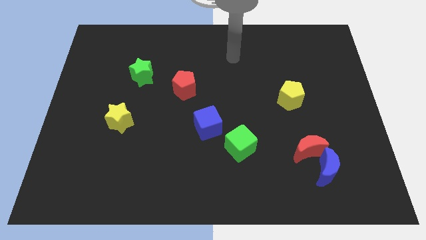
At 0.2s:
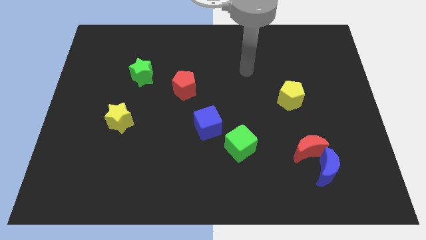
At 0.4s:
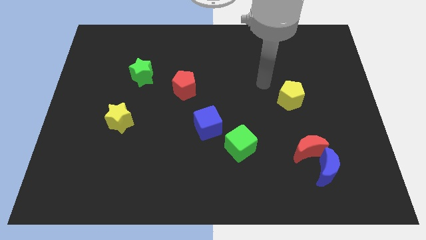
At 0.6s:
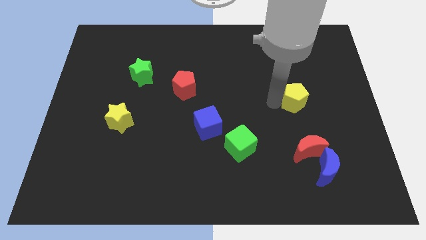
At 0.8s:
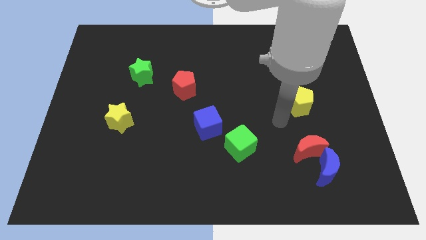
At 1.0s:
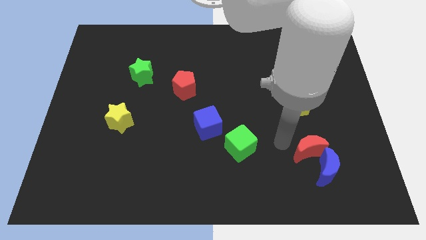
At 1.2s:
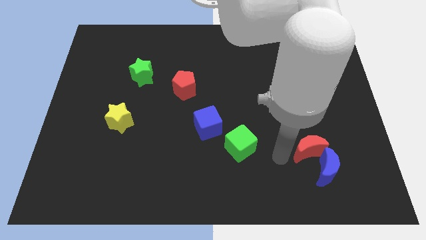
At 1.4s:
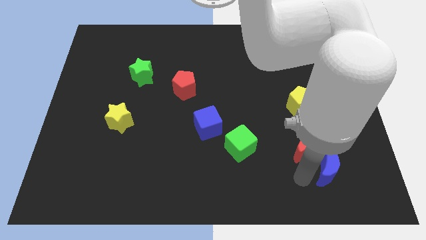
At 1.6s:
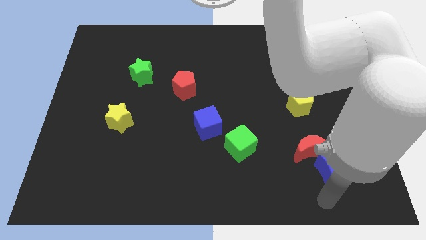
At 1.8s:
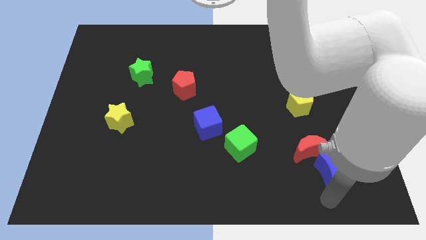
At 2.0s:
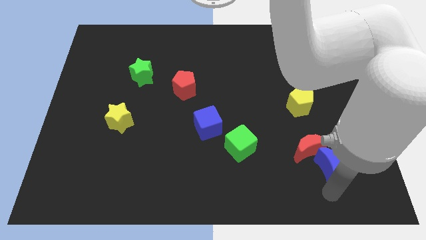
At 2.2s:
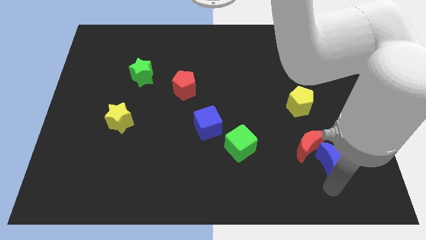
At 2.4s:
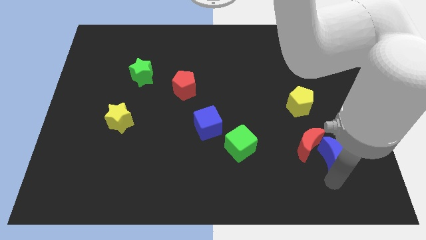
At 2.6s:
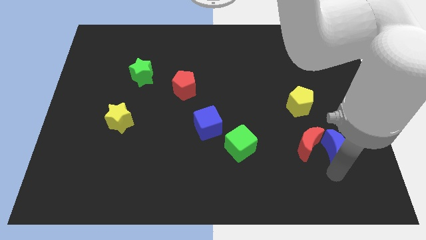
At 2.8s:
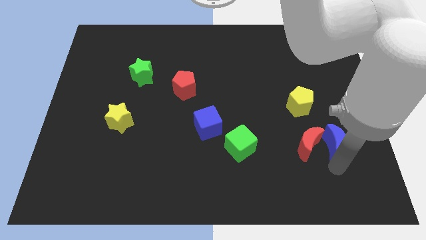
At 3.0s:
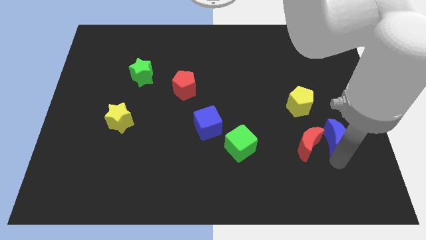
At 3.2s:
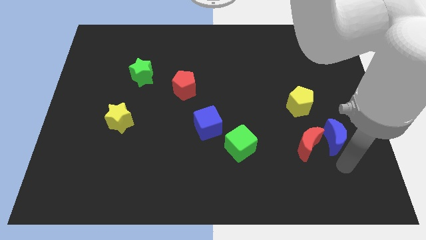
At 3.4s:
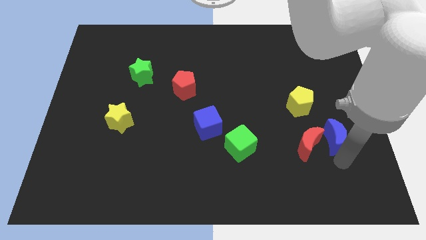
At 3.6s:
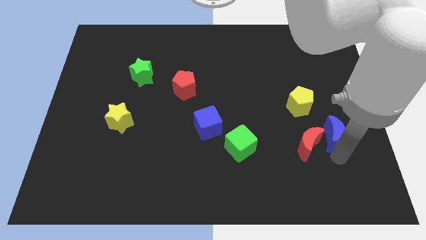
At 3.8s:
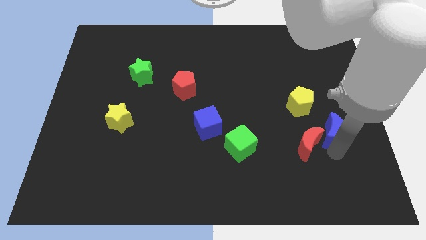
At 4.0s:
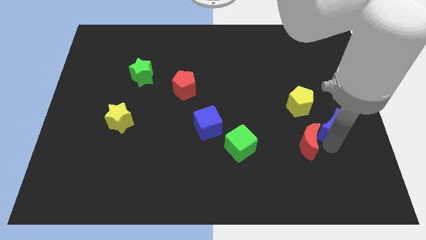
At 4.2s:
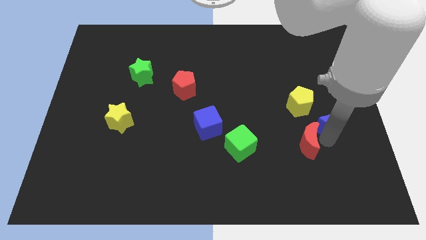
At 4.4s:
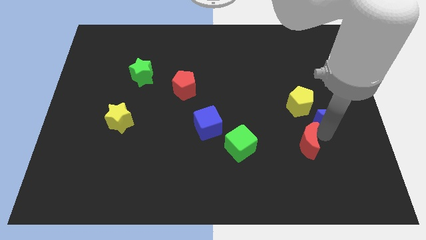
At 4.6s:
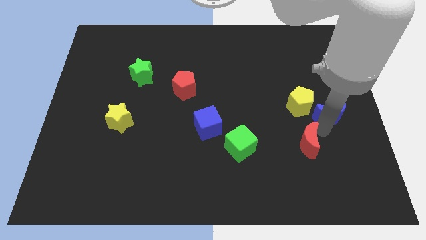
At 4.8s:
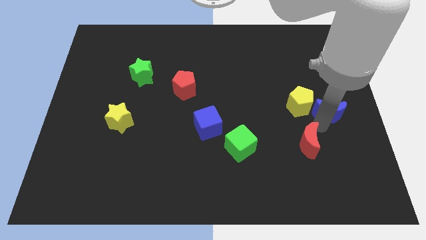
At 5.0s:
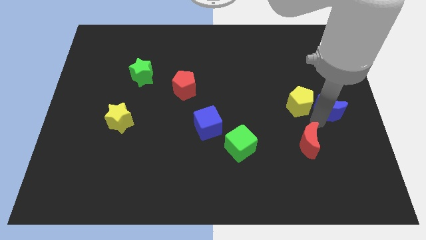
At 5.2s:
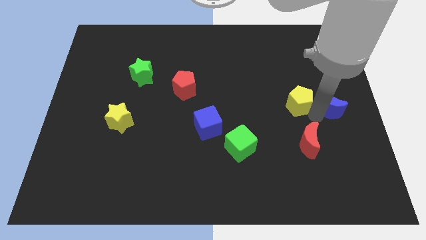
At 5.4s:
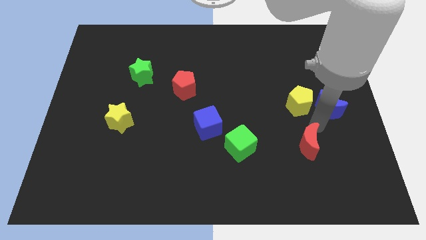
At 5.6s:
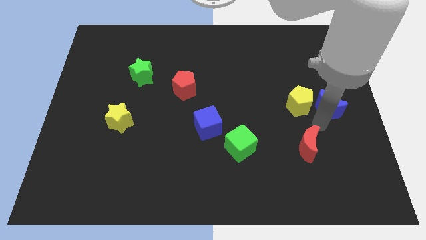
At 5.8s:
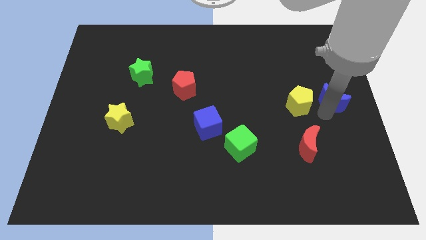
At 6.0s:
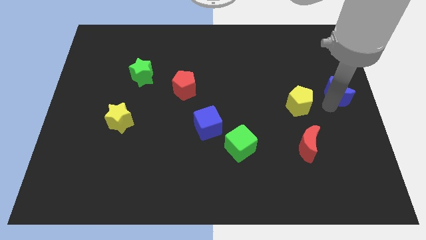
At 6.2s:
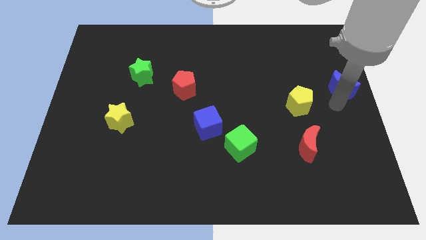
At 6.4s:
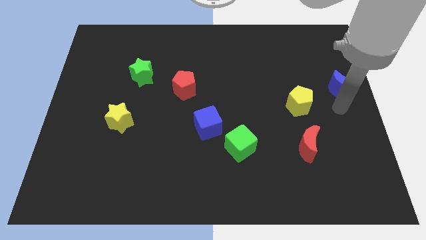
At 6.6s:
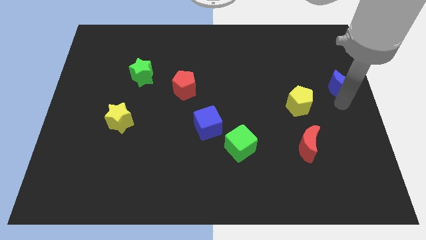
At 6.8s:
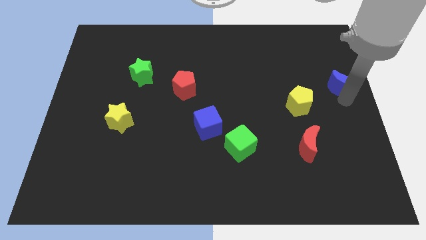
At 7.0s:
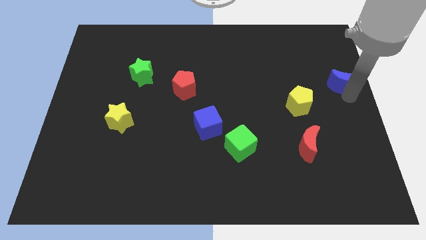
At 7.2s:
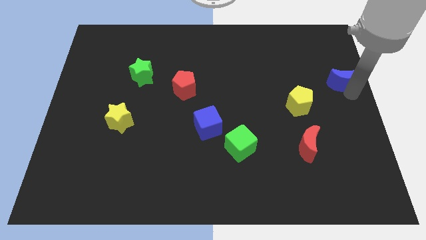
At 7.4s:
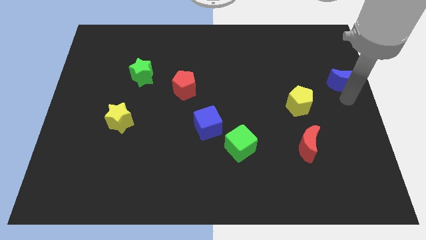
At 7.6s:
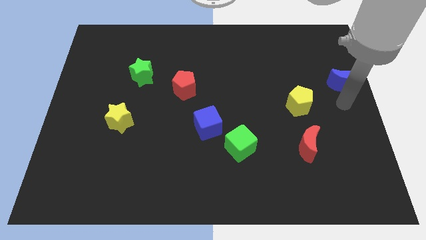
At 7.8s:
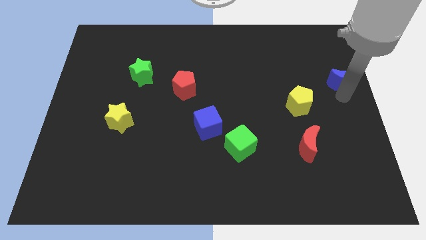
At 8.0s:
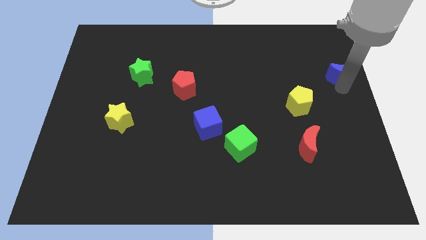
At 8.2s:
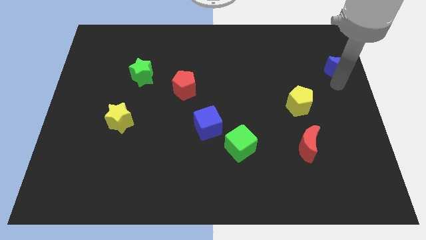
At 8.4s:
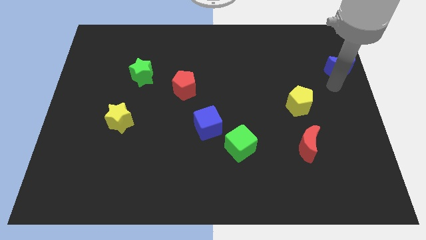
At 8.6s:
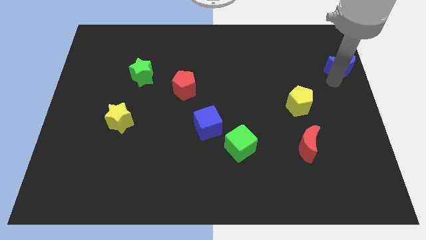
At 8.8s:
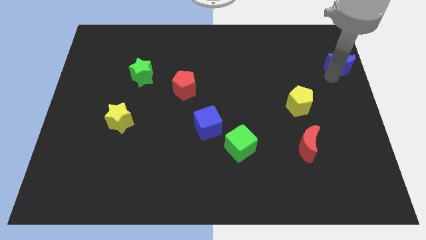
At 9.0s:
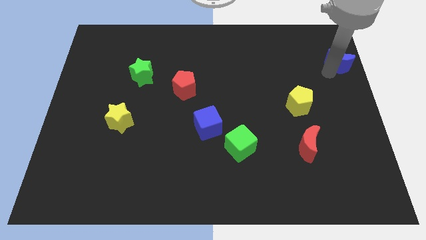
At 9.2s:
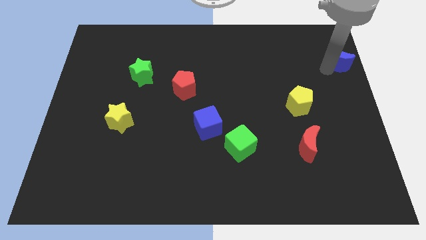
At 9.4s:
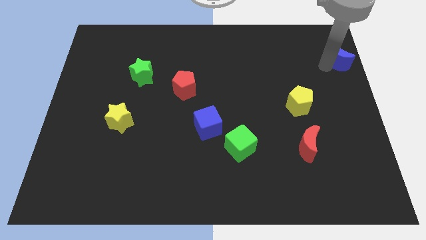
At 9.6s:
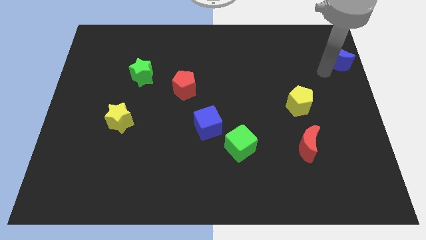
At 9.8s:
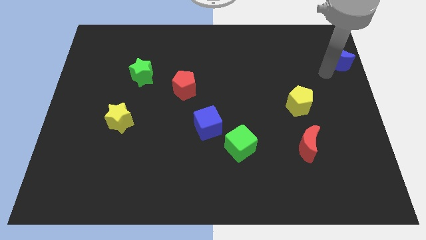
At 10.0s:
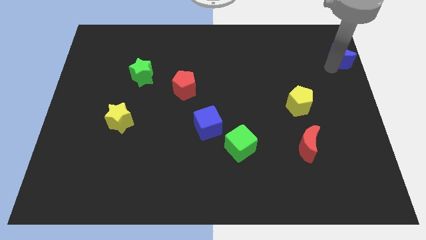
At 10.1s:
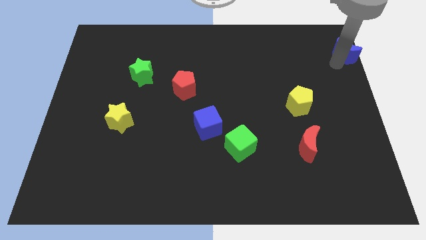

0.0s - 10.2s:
move the blue moon to the top right corner

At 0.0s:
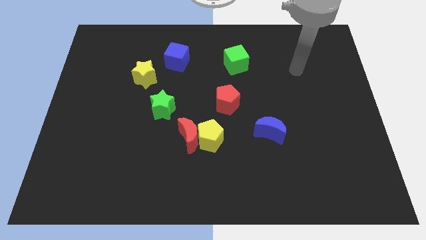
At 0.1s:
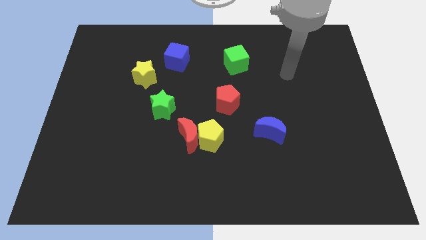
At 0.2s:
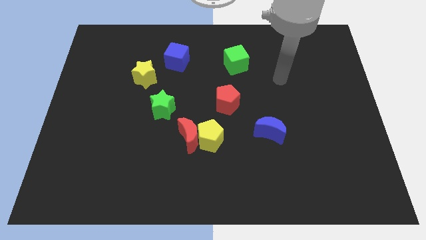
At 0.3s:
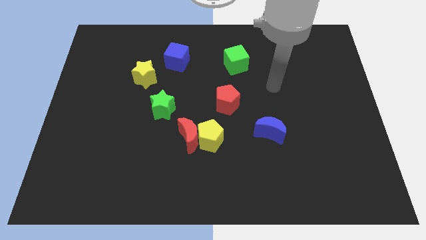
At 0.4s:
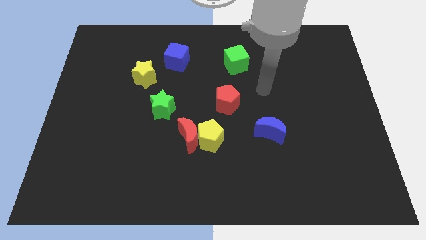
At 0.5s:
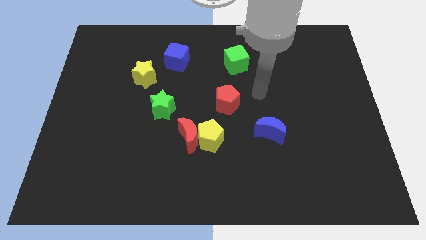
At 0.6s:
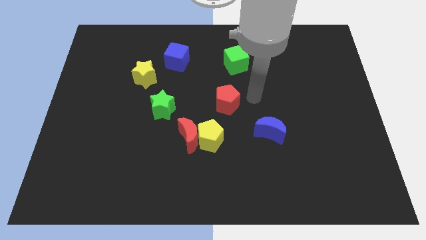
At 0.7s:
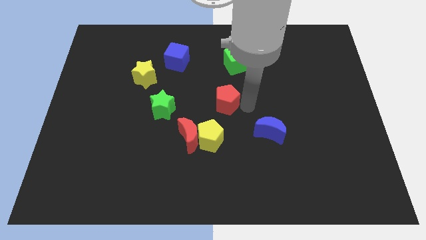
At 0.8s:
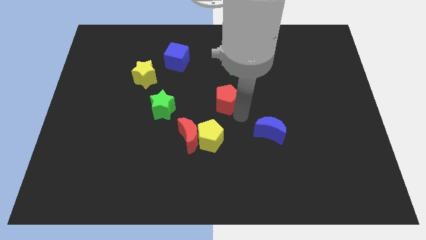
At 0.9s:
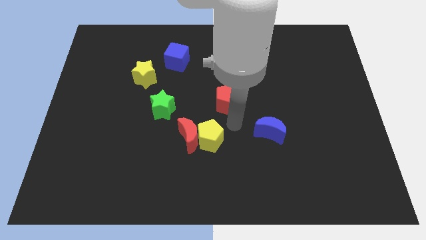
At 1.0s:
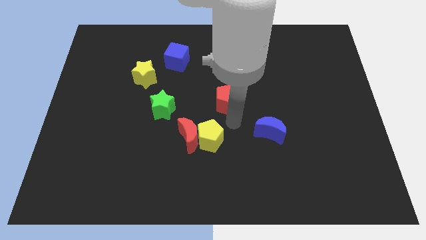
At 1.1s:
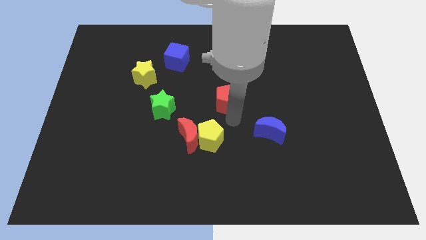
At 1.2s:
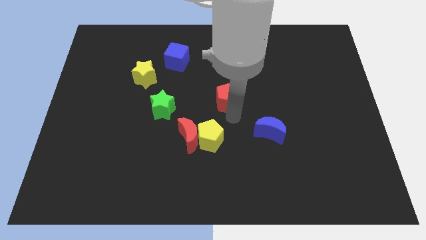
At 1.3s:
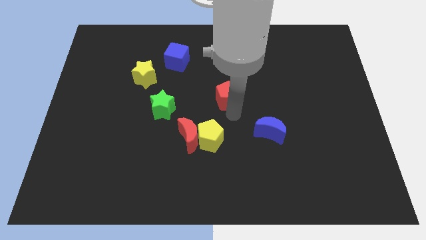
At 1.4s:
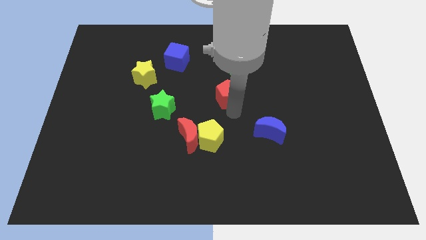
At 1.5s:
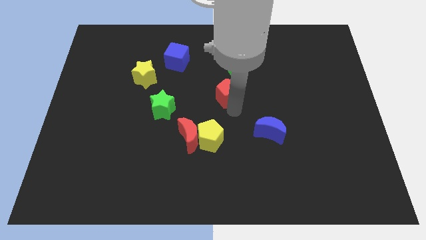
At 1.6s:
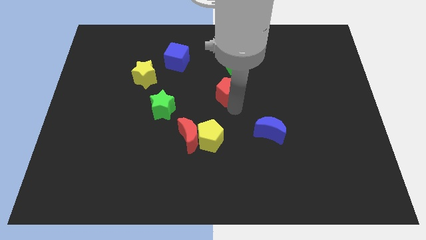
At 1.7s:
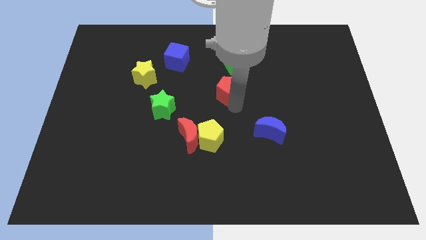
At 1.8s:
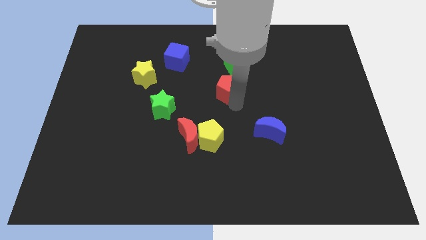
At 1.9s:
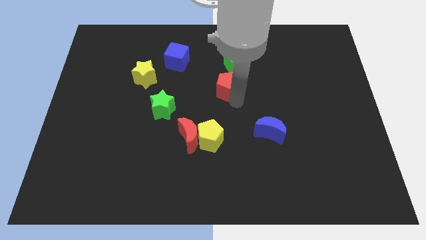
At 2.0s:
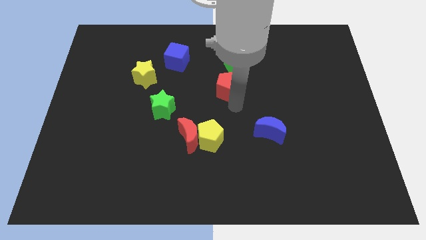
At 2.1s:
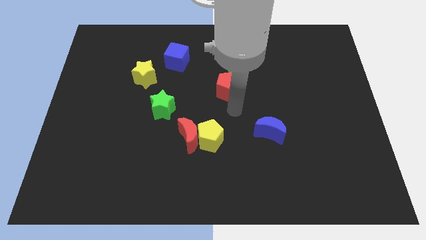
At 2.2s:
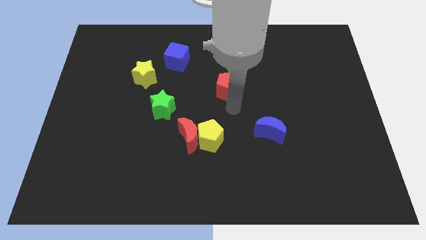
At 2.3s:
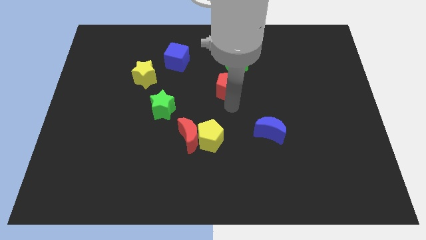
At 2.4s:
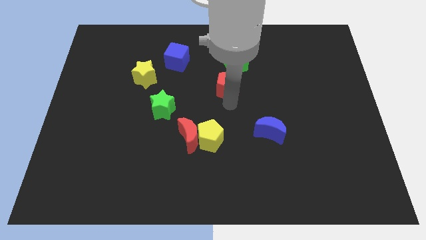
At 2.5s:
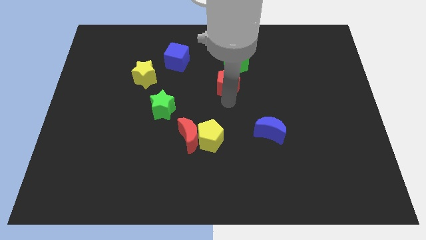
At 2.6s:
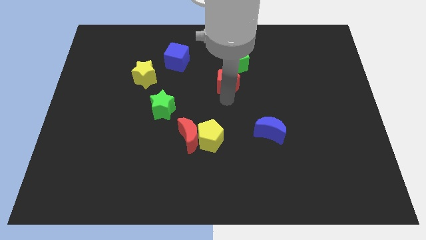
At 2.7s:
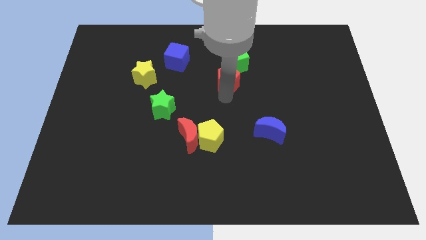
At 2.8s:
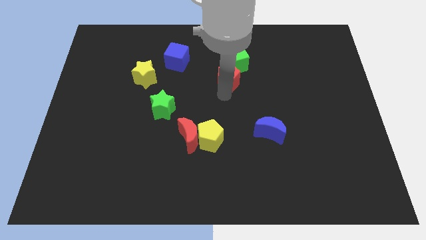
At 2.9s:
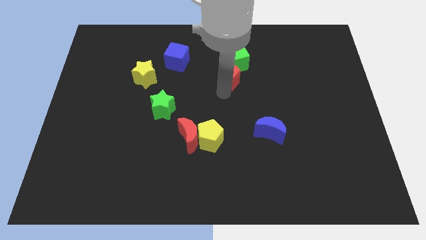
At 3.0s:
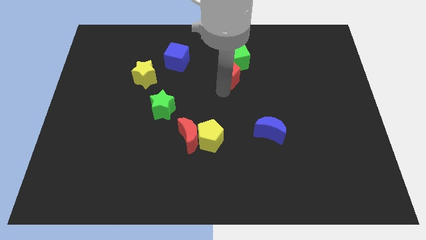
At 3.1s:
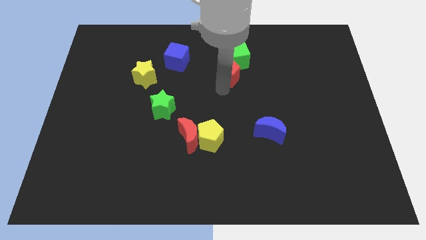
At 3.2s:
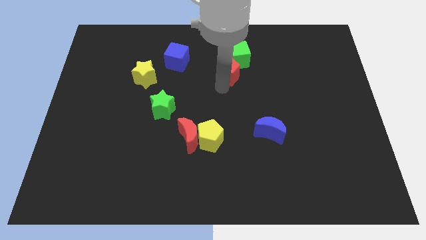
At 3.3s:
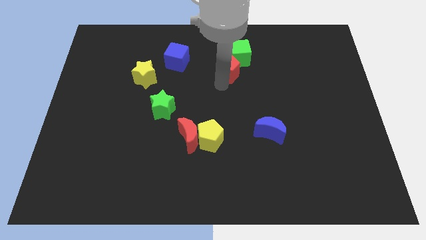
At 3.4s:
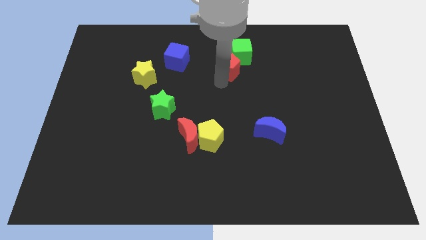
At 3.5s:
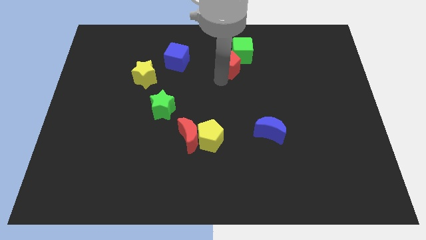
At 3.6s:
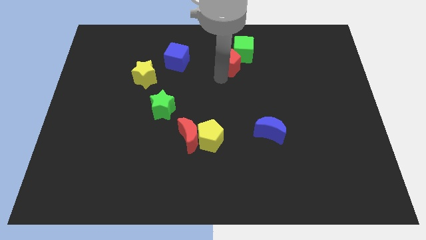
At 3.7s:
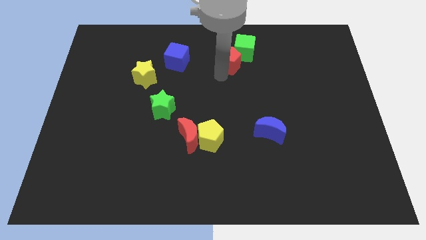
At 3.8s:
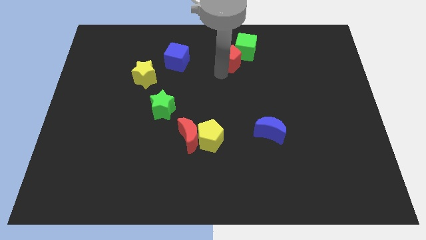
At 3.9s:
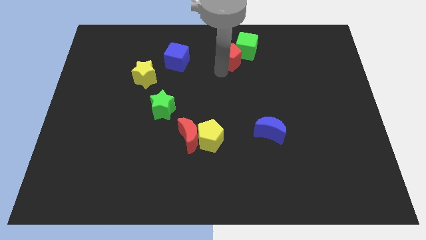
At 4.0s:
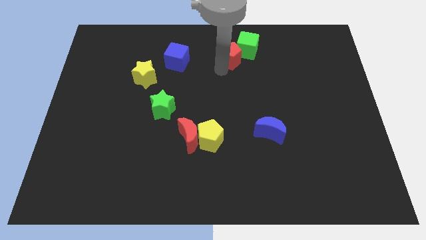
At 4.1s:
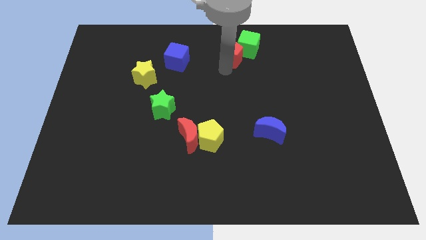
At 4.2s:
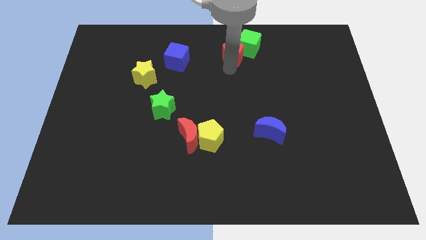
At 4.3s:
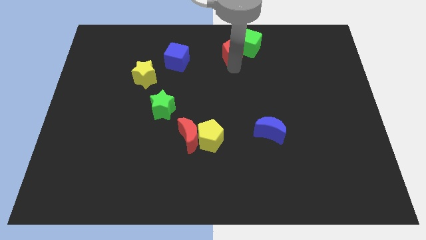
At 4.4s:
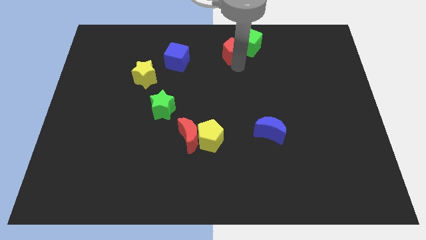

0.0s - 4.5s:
move the red pentagon to the top side
